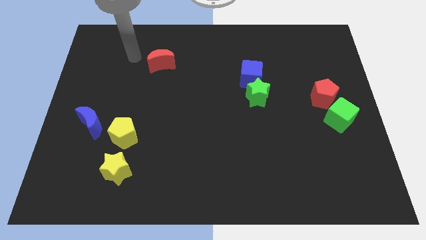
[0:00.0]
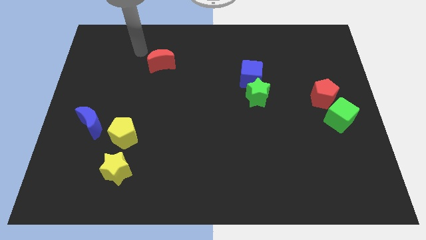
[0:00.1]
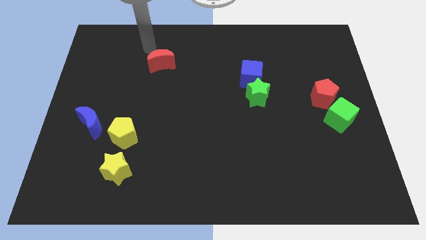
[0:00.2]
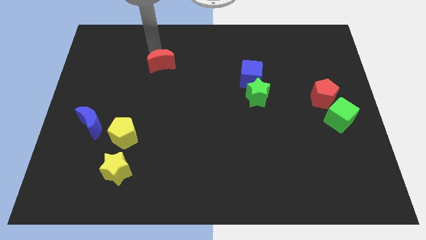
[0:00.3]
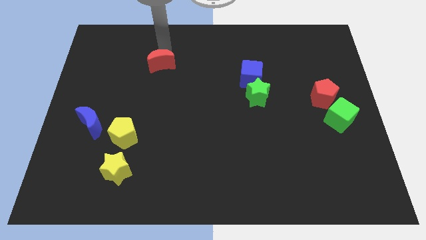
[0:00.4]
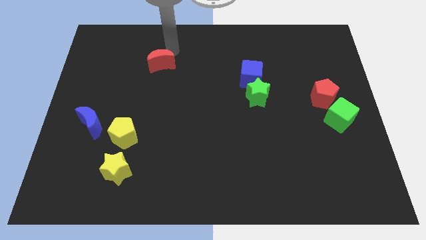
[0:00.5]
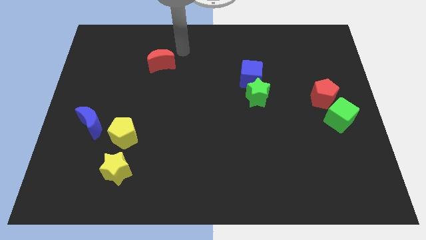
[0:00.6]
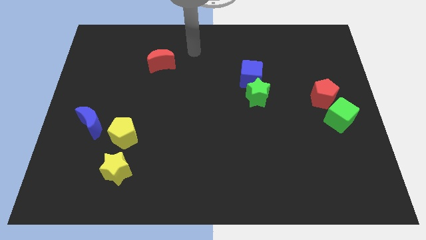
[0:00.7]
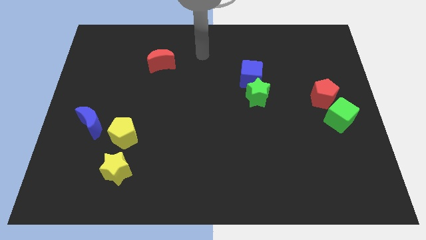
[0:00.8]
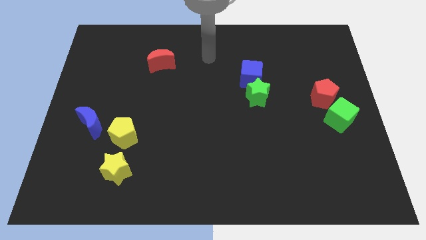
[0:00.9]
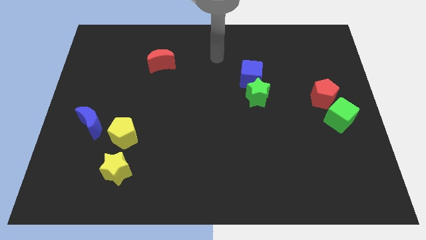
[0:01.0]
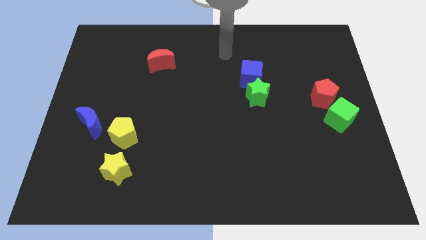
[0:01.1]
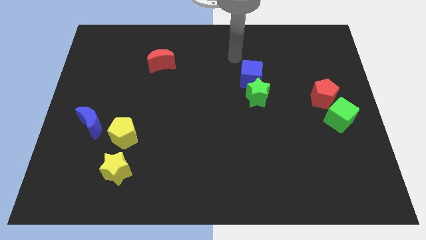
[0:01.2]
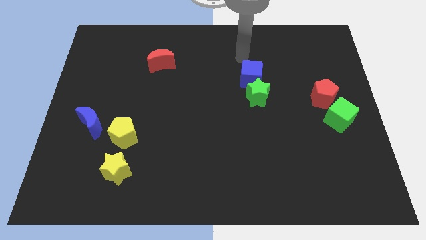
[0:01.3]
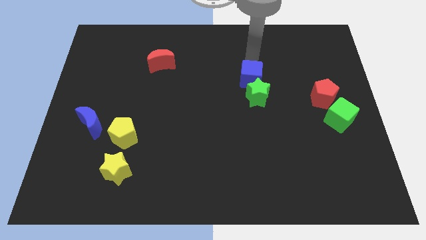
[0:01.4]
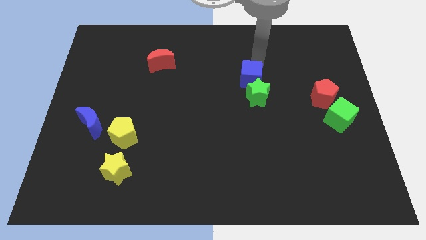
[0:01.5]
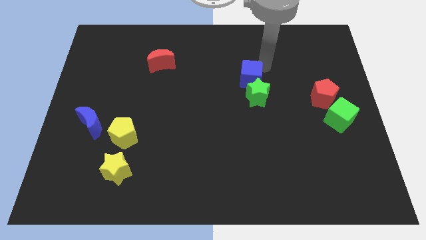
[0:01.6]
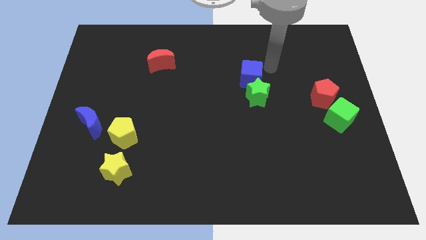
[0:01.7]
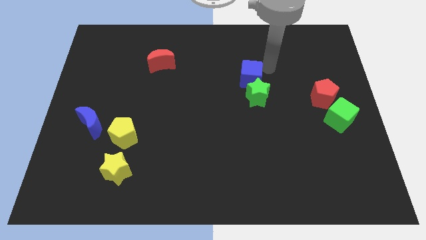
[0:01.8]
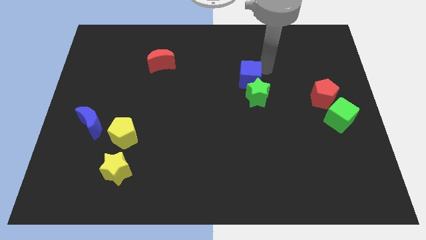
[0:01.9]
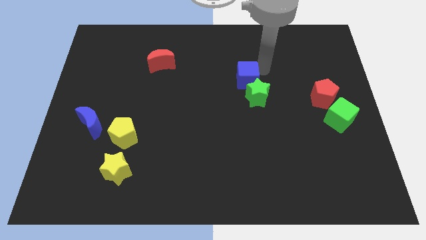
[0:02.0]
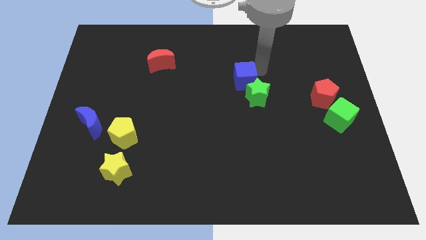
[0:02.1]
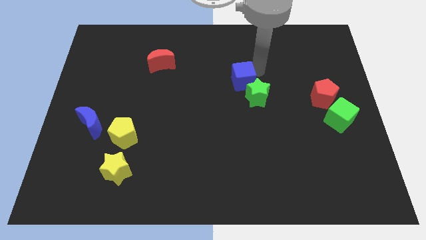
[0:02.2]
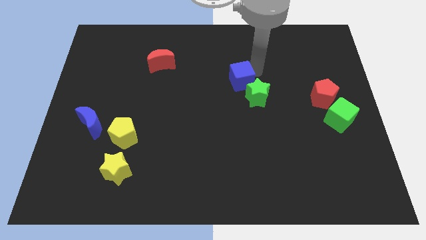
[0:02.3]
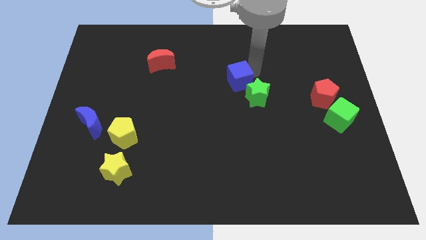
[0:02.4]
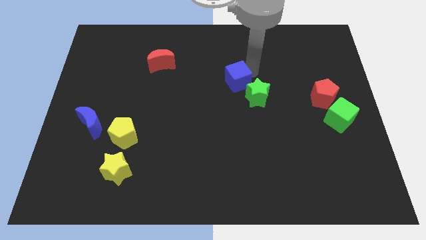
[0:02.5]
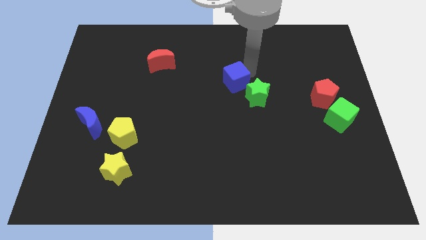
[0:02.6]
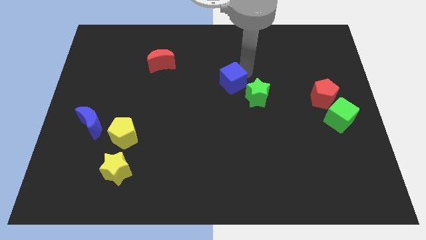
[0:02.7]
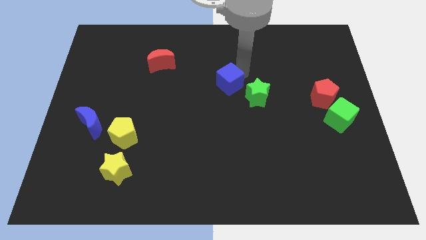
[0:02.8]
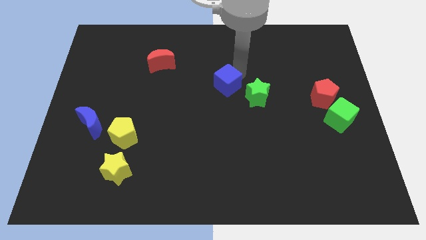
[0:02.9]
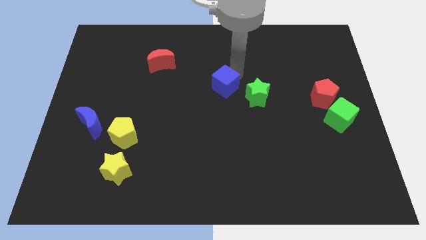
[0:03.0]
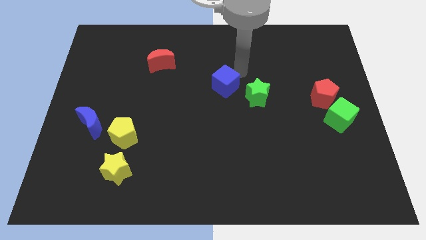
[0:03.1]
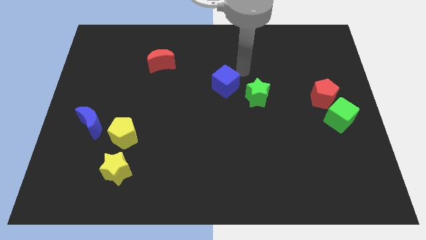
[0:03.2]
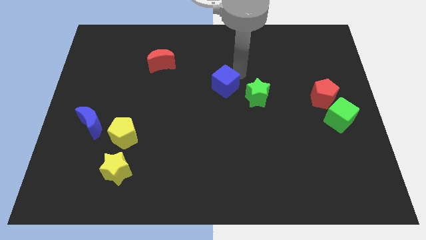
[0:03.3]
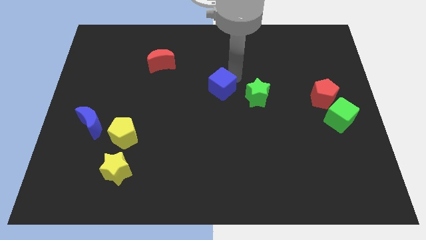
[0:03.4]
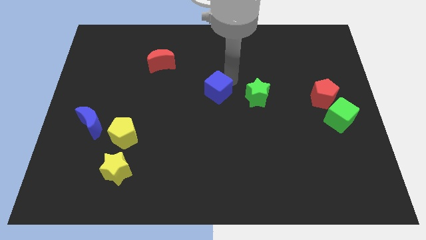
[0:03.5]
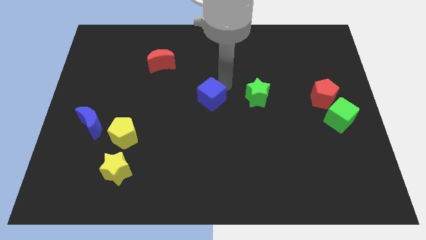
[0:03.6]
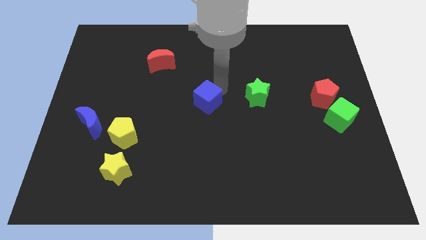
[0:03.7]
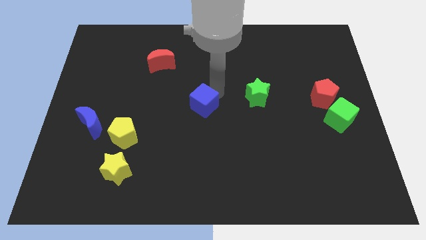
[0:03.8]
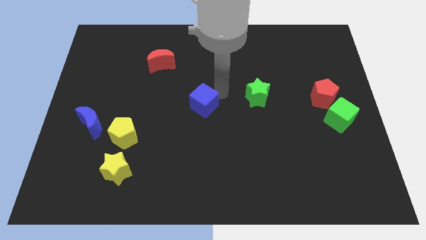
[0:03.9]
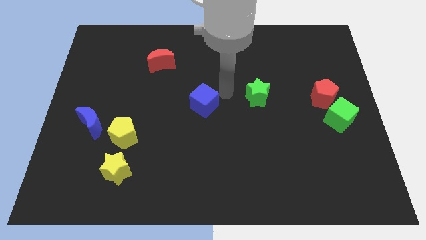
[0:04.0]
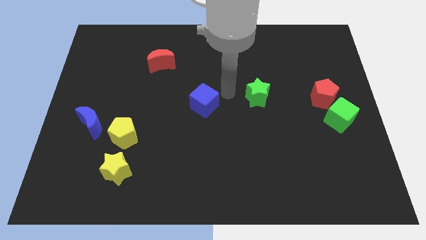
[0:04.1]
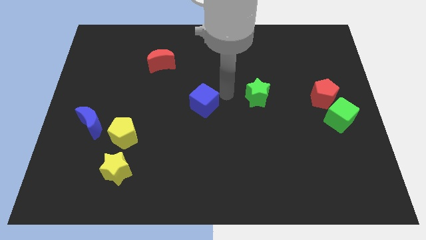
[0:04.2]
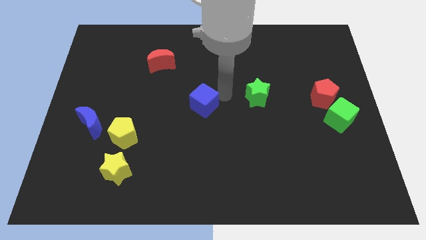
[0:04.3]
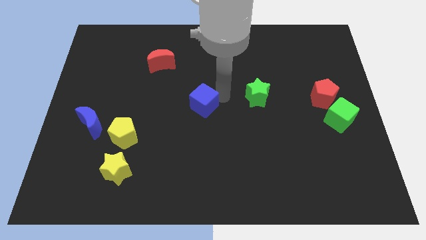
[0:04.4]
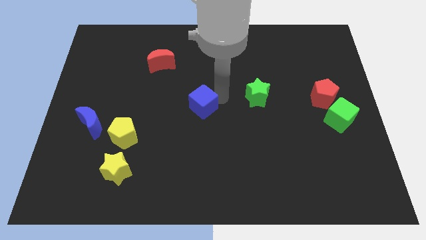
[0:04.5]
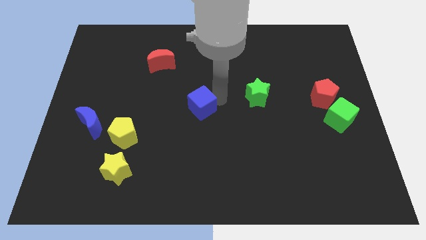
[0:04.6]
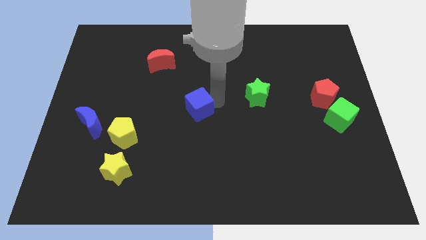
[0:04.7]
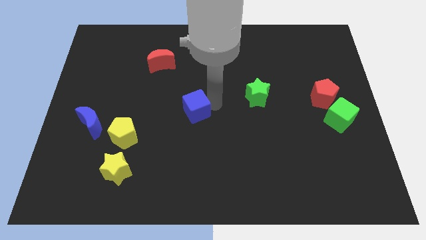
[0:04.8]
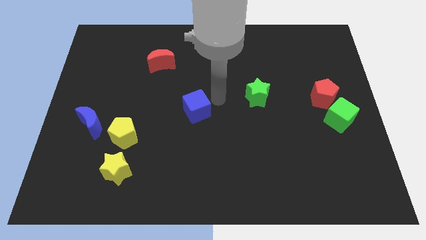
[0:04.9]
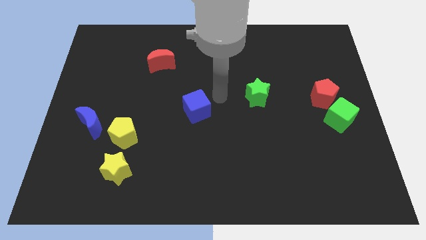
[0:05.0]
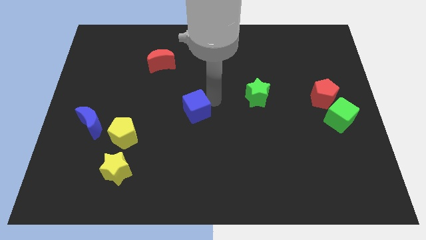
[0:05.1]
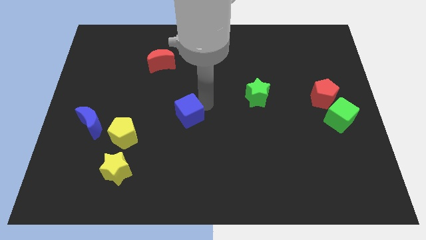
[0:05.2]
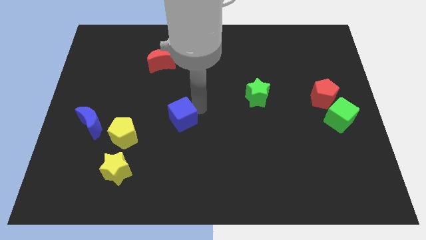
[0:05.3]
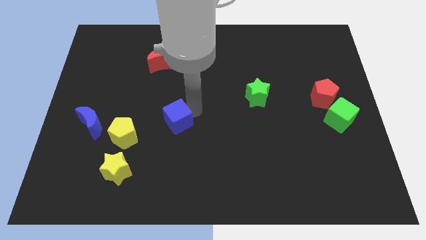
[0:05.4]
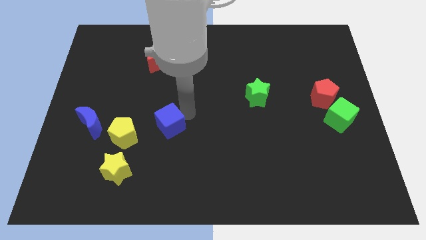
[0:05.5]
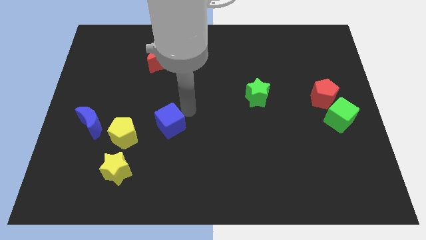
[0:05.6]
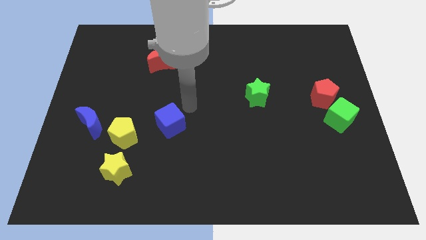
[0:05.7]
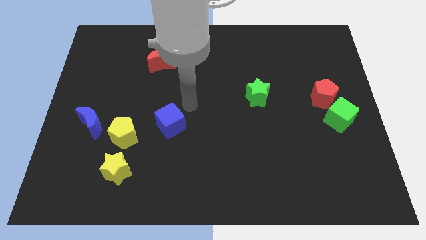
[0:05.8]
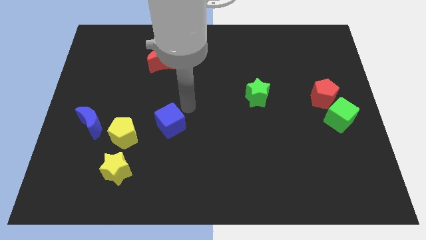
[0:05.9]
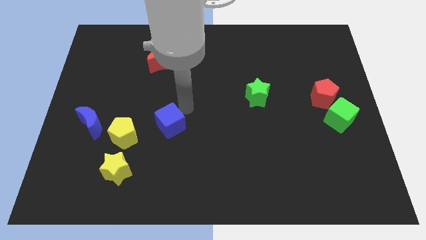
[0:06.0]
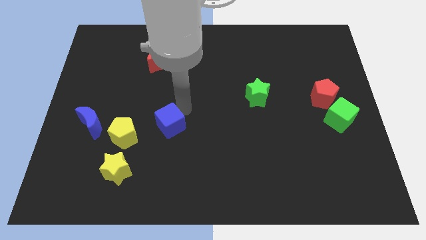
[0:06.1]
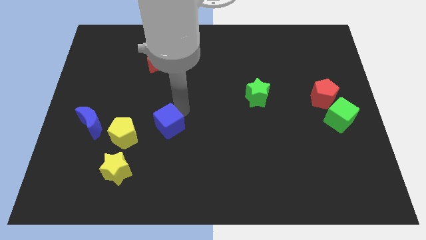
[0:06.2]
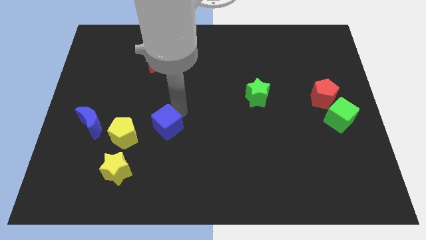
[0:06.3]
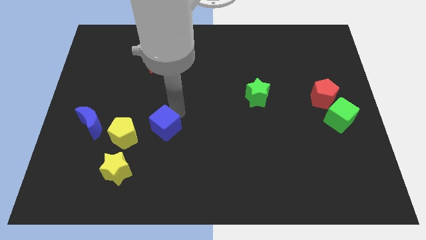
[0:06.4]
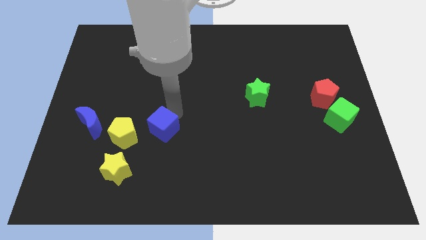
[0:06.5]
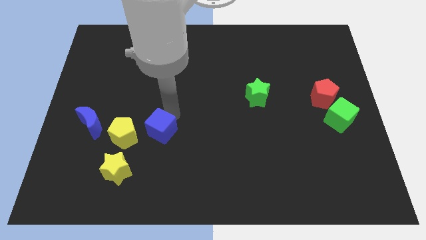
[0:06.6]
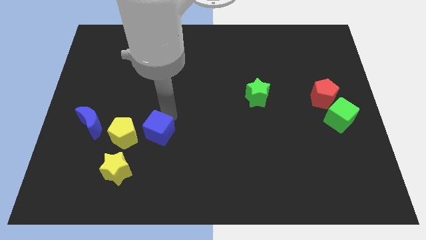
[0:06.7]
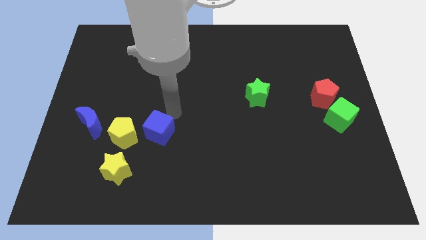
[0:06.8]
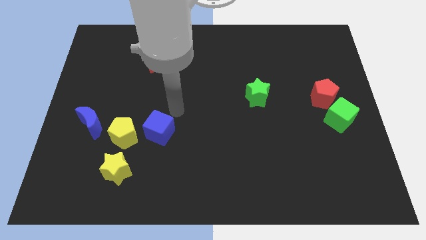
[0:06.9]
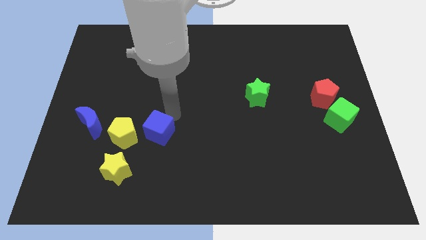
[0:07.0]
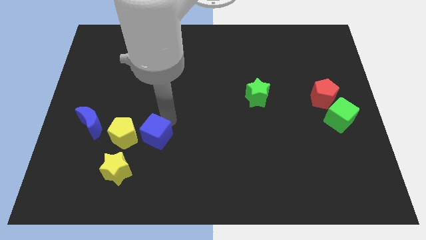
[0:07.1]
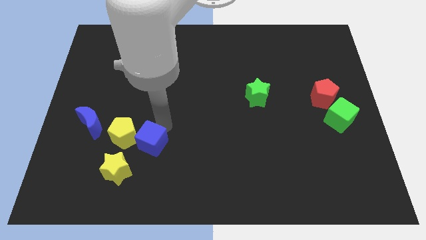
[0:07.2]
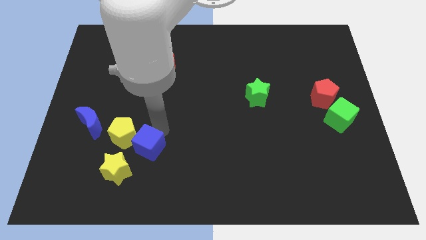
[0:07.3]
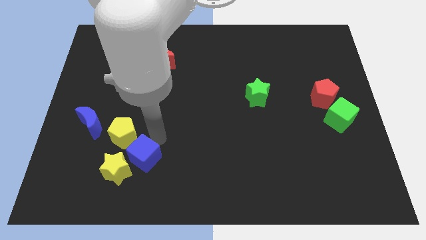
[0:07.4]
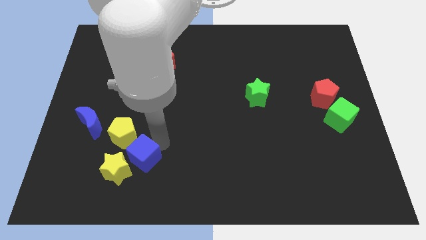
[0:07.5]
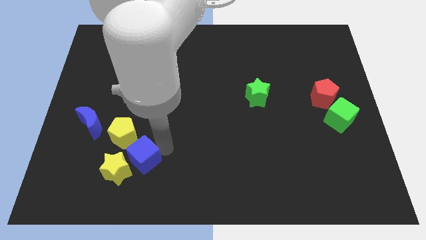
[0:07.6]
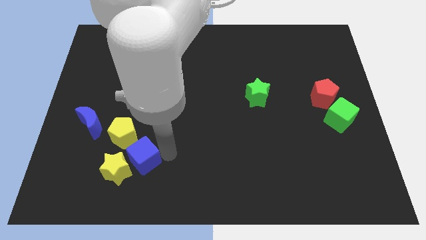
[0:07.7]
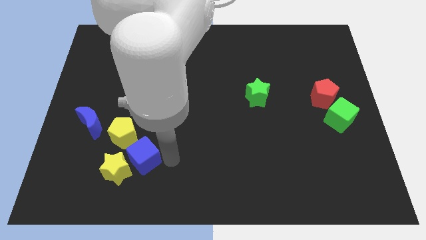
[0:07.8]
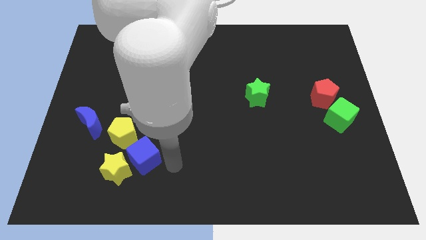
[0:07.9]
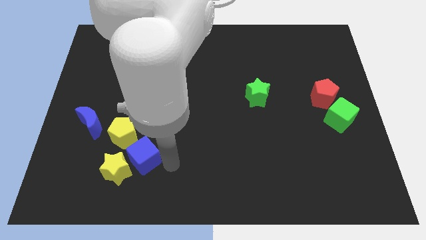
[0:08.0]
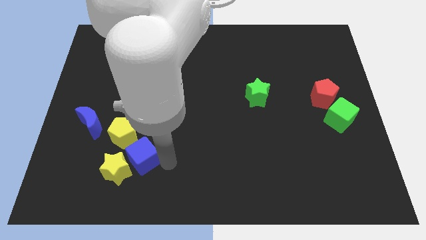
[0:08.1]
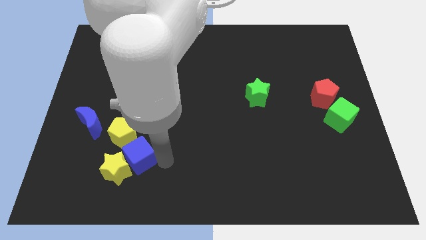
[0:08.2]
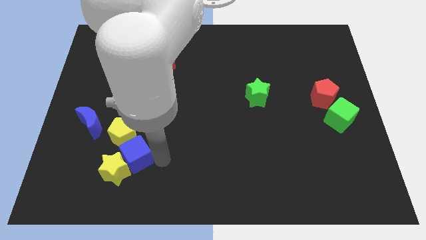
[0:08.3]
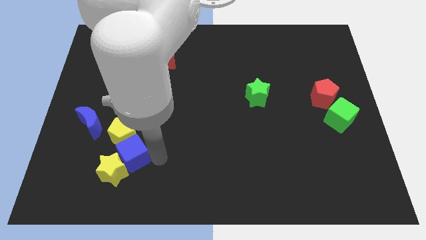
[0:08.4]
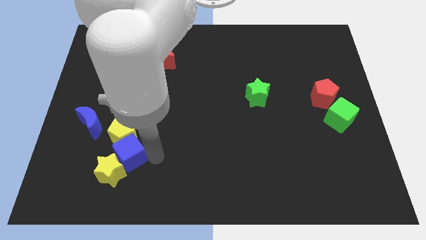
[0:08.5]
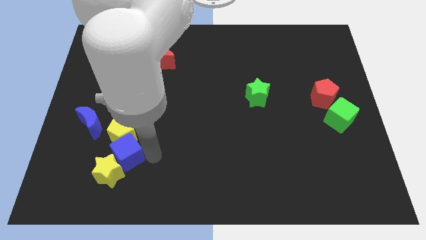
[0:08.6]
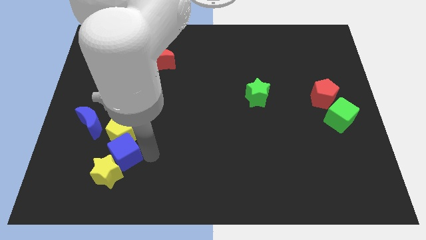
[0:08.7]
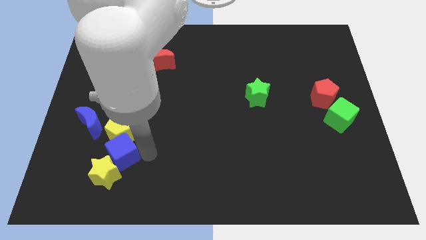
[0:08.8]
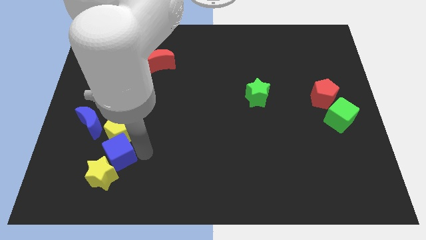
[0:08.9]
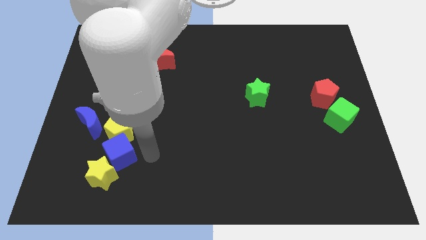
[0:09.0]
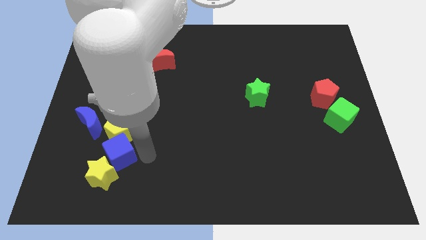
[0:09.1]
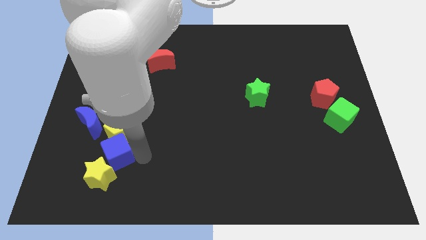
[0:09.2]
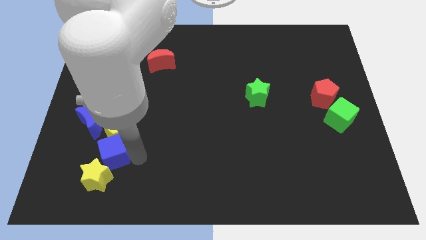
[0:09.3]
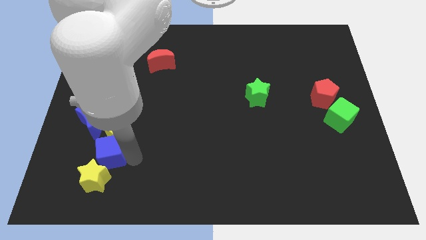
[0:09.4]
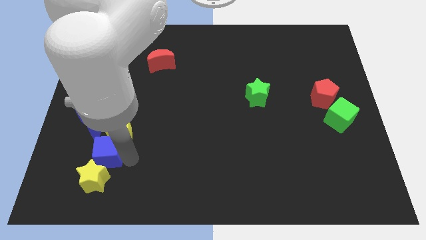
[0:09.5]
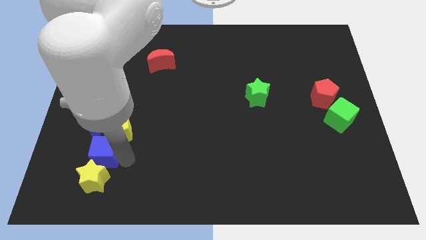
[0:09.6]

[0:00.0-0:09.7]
slide the blue cube to the top left side of the yellow star
